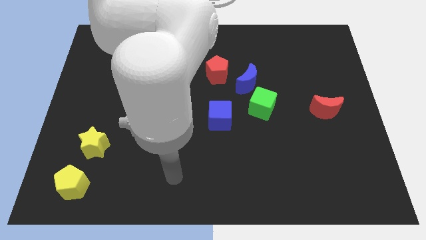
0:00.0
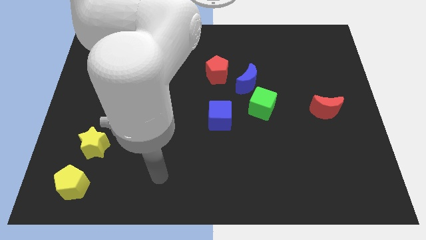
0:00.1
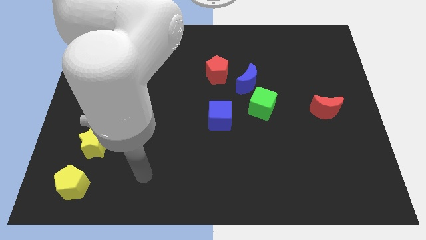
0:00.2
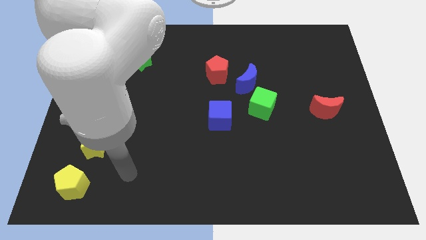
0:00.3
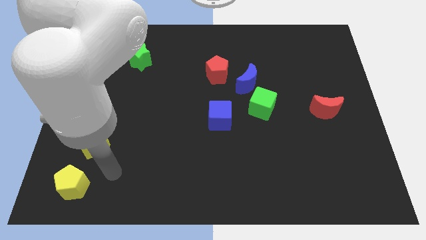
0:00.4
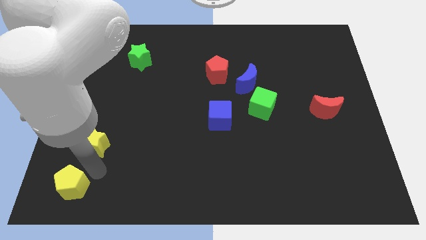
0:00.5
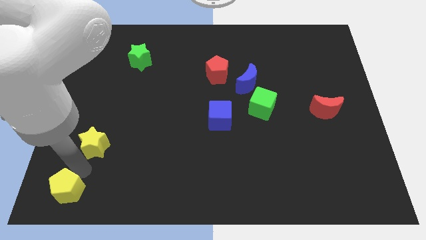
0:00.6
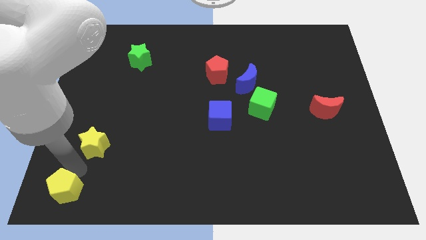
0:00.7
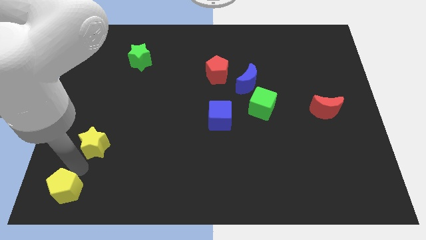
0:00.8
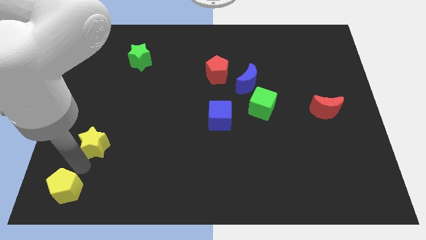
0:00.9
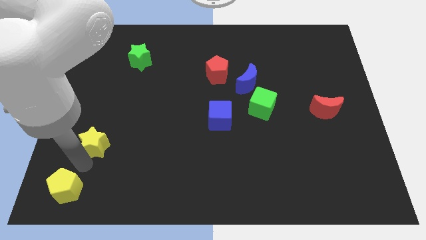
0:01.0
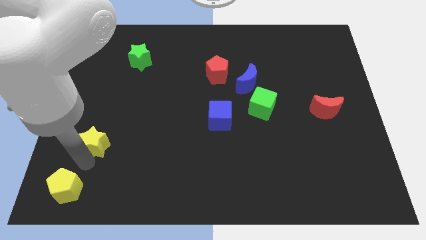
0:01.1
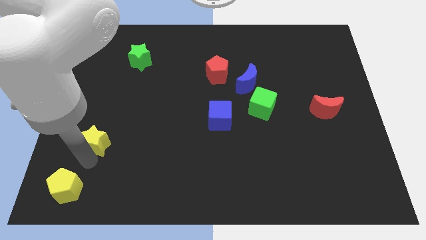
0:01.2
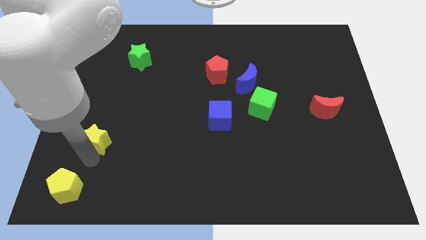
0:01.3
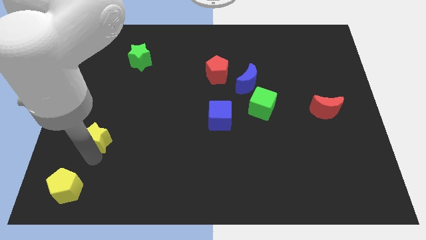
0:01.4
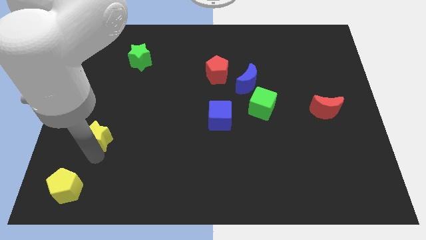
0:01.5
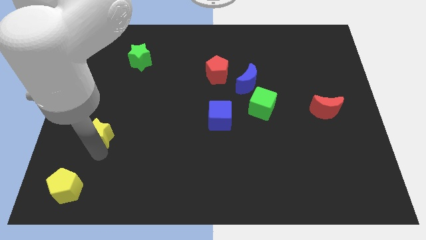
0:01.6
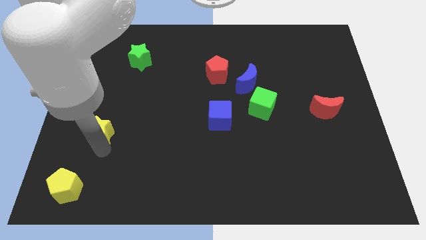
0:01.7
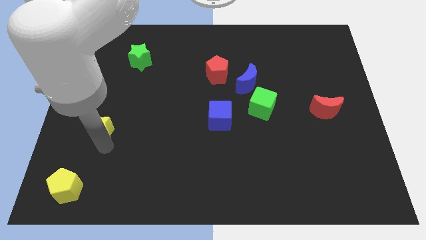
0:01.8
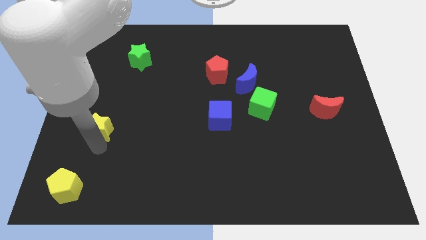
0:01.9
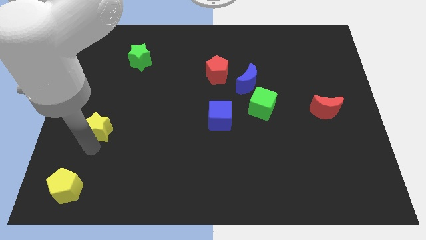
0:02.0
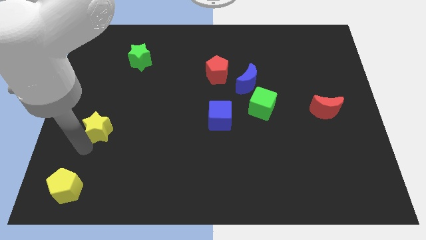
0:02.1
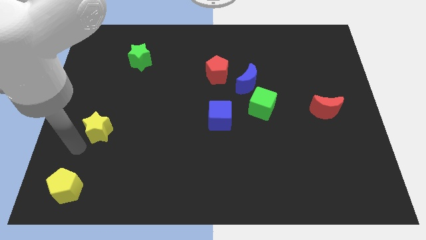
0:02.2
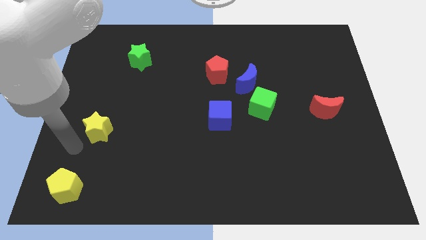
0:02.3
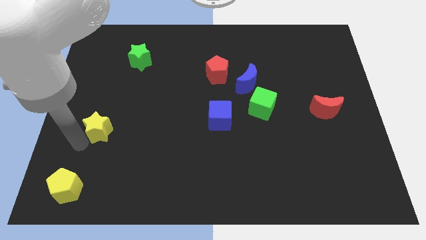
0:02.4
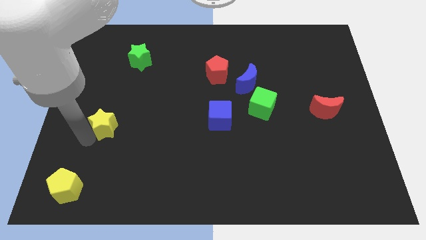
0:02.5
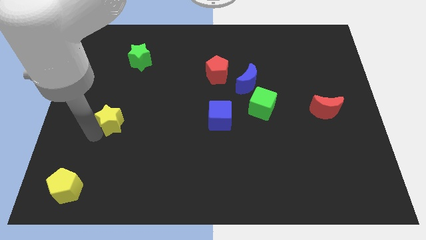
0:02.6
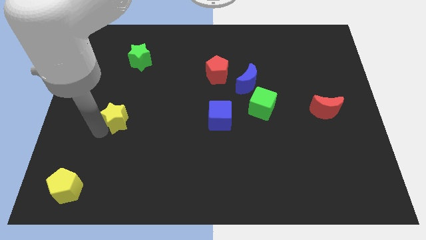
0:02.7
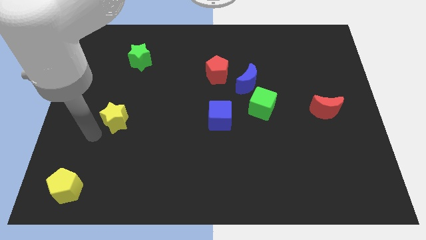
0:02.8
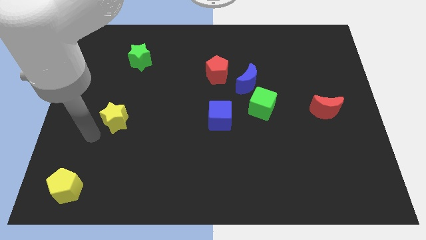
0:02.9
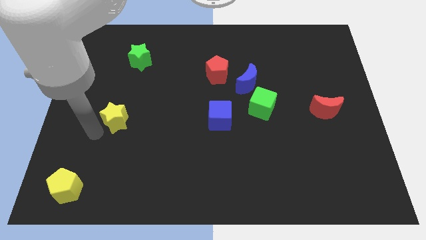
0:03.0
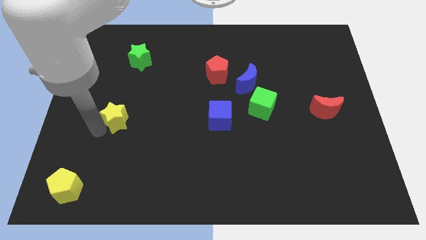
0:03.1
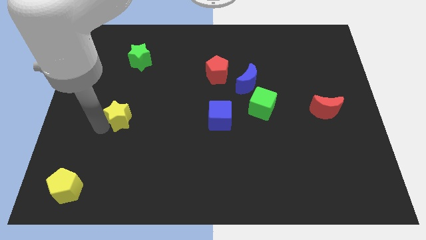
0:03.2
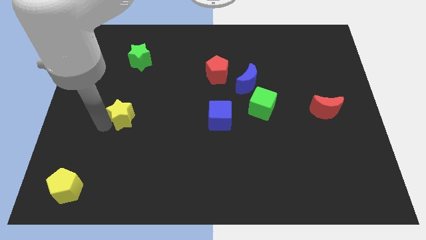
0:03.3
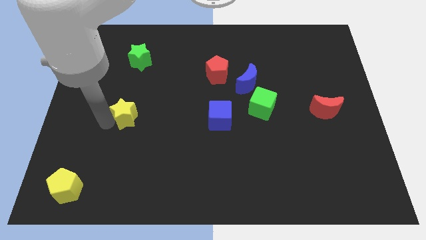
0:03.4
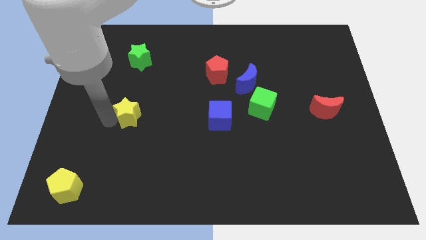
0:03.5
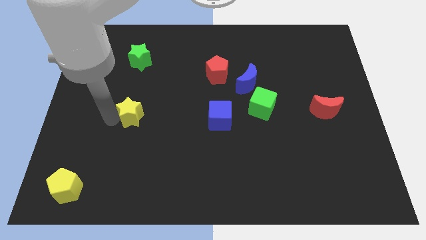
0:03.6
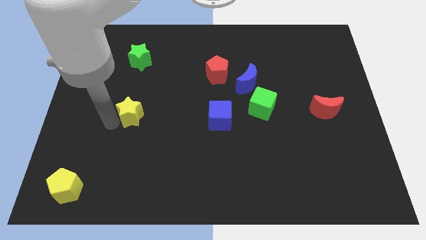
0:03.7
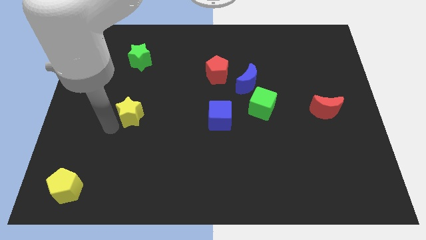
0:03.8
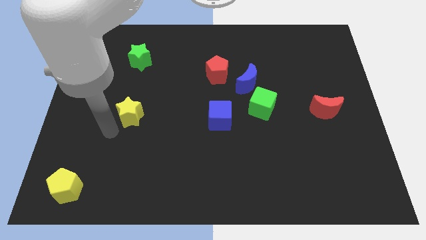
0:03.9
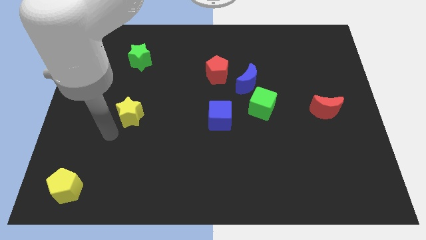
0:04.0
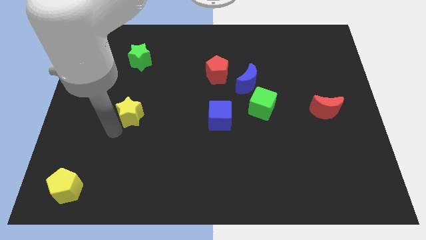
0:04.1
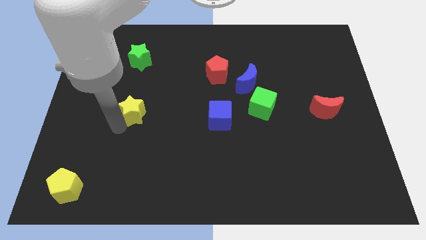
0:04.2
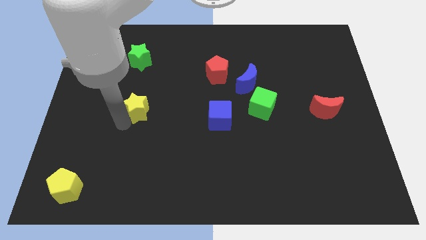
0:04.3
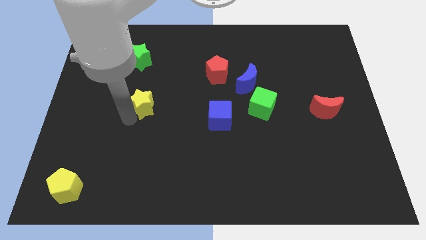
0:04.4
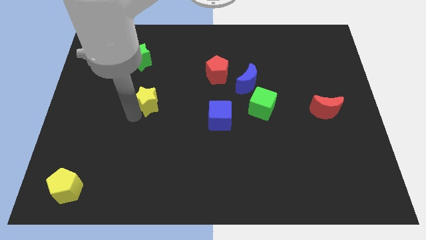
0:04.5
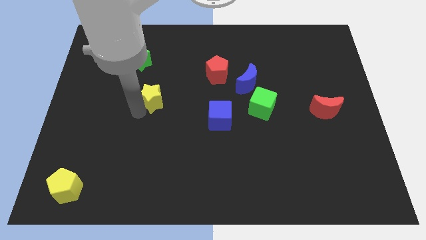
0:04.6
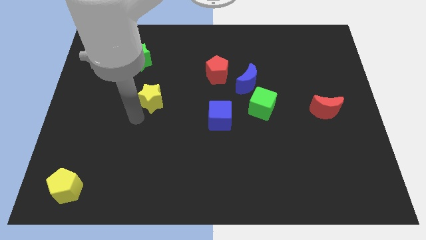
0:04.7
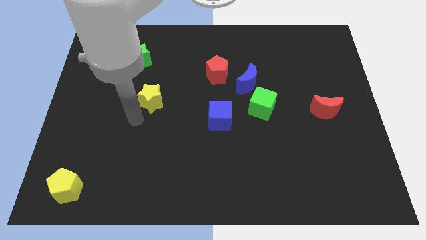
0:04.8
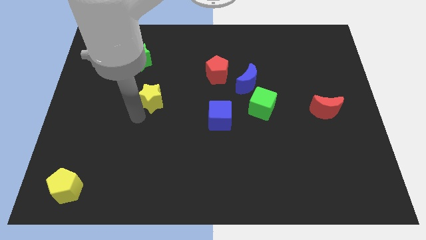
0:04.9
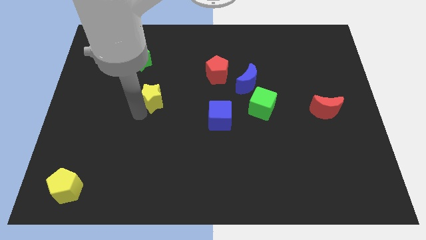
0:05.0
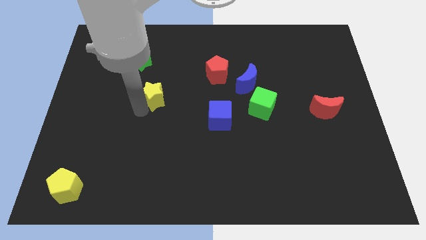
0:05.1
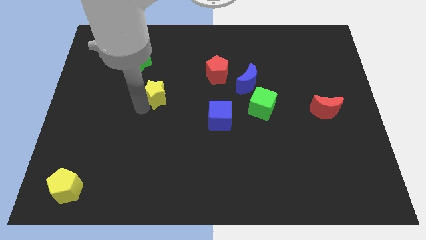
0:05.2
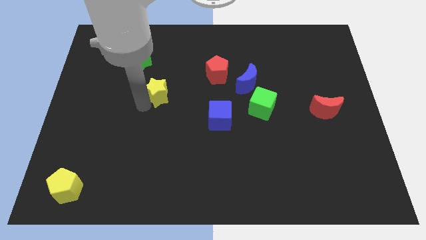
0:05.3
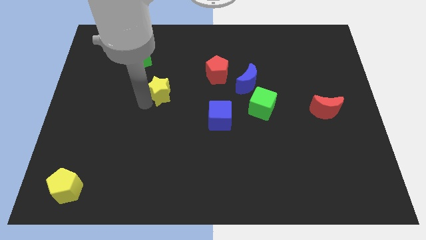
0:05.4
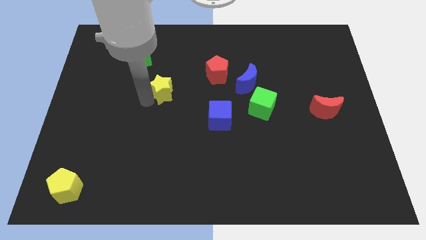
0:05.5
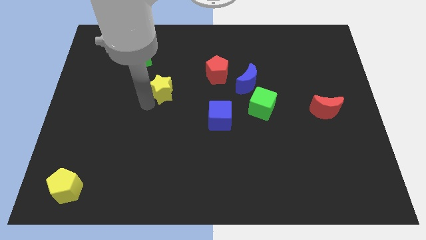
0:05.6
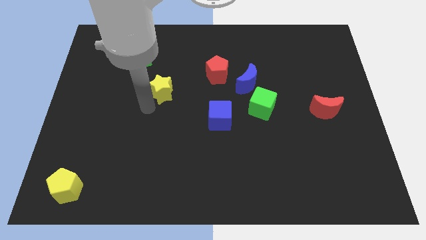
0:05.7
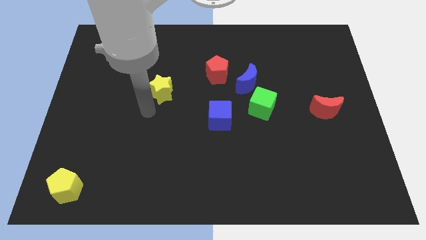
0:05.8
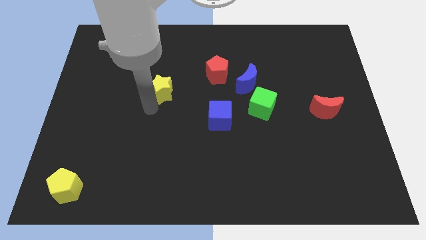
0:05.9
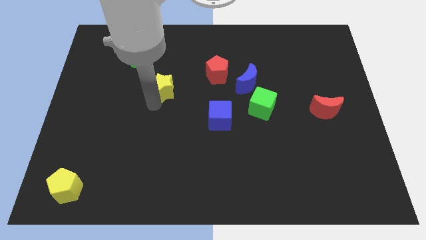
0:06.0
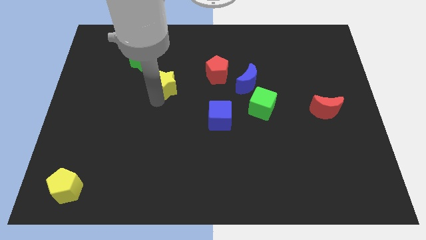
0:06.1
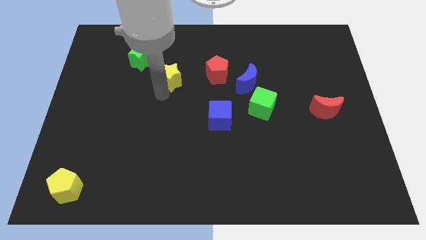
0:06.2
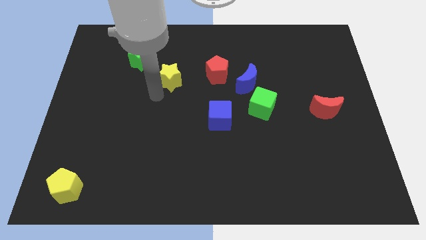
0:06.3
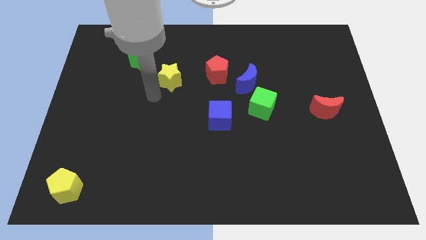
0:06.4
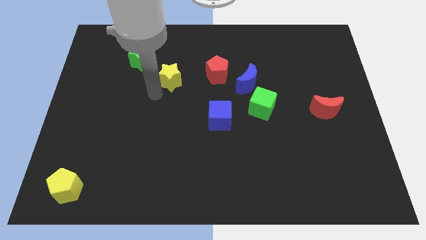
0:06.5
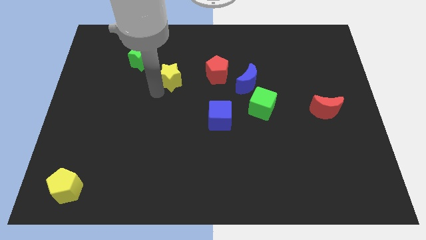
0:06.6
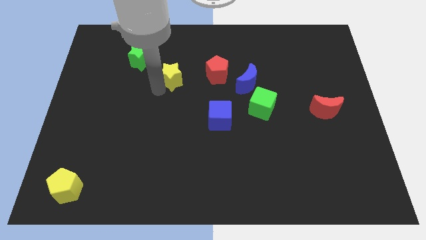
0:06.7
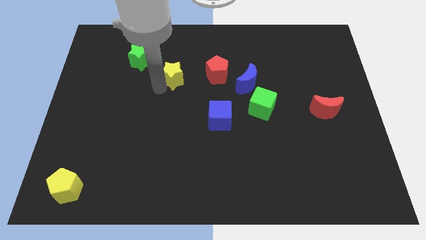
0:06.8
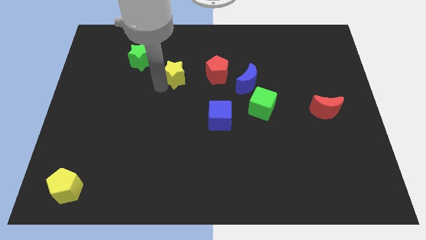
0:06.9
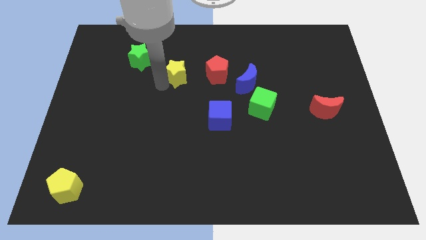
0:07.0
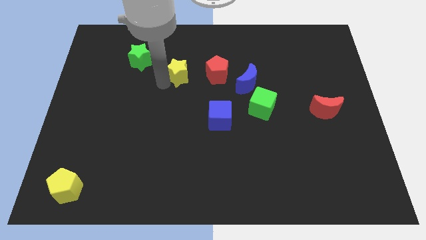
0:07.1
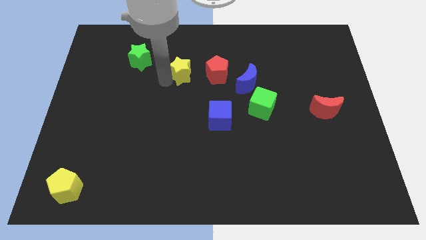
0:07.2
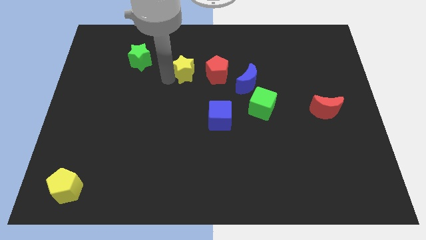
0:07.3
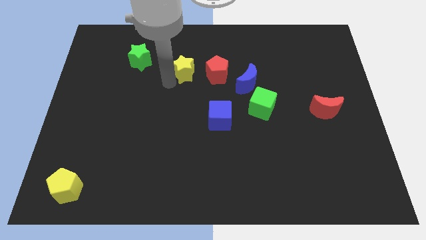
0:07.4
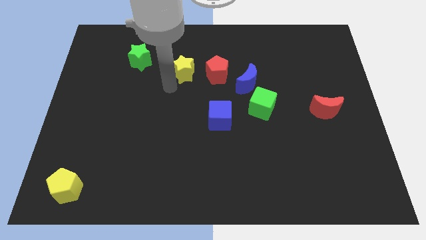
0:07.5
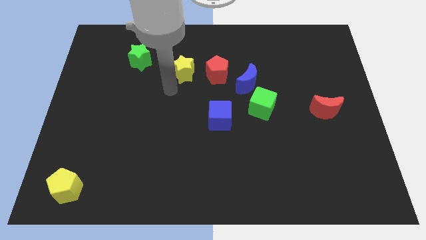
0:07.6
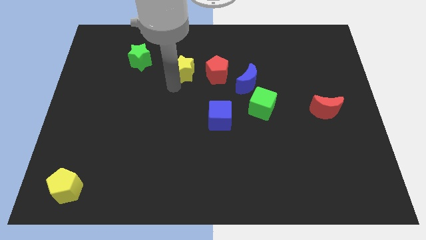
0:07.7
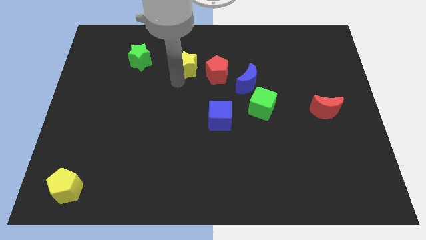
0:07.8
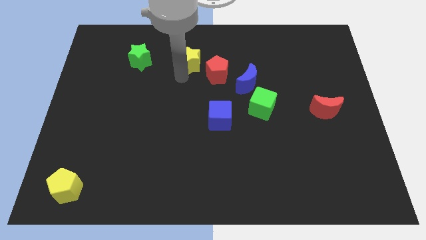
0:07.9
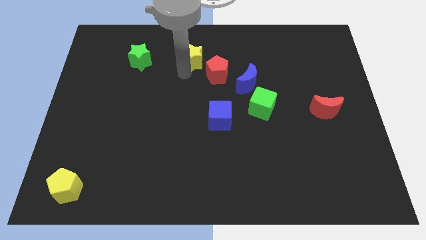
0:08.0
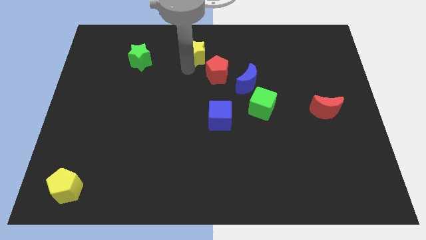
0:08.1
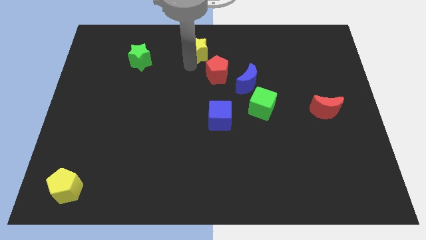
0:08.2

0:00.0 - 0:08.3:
push the yellow star to the top
